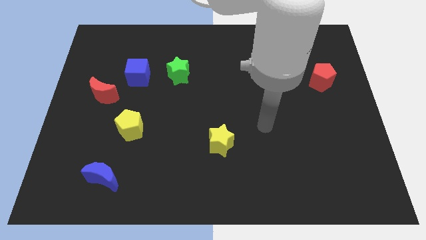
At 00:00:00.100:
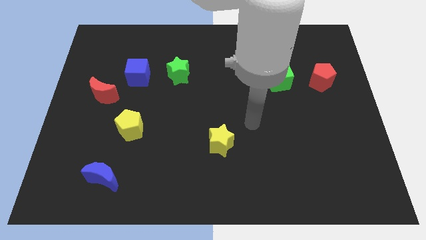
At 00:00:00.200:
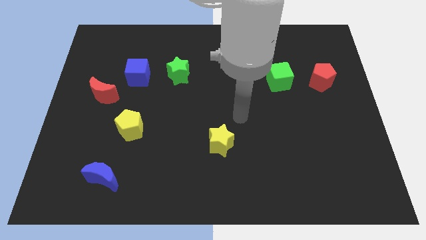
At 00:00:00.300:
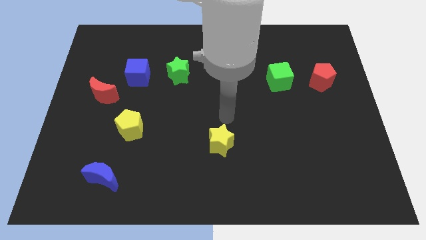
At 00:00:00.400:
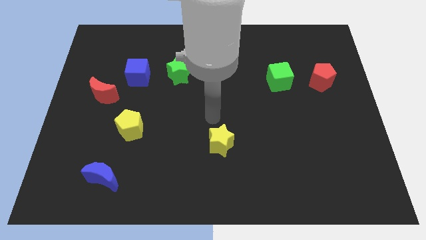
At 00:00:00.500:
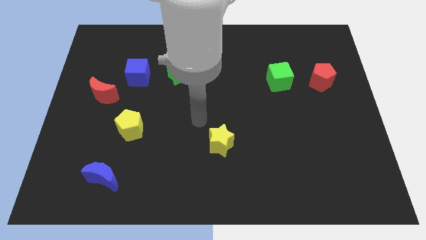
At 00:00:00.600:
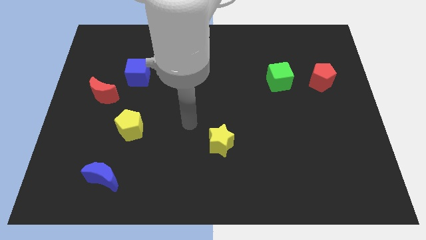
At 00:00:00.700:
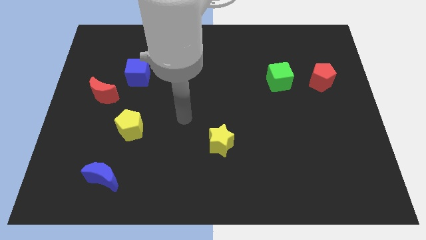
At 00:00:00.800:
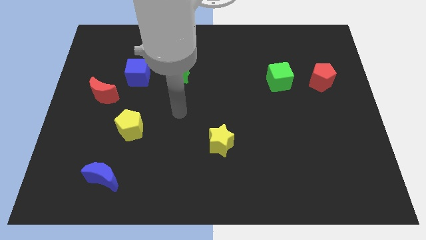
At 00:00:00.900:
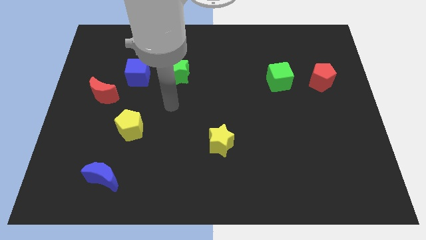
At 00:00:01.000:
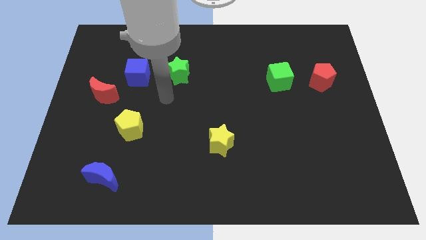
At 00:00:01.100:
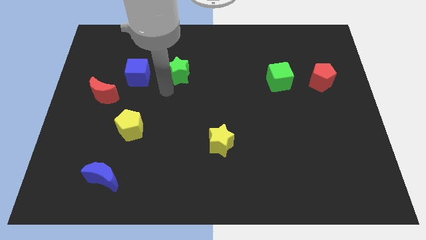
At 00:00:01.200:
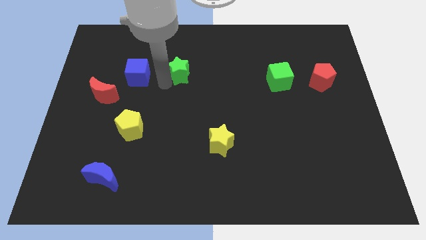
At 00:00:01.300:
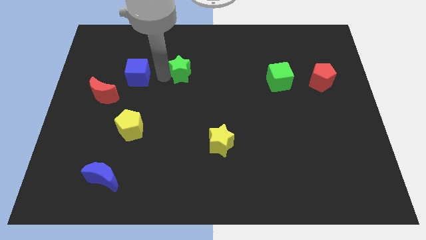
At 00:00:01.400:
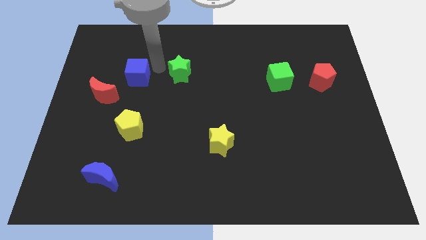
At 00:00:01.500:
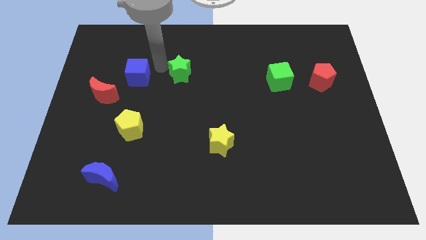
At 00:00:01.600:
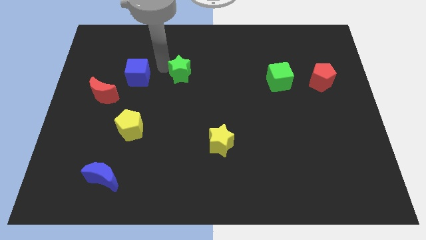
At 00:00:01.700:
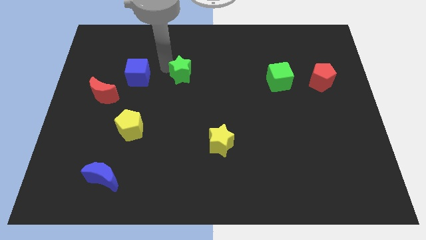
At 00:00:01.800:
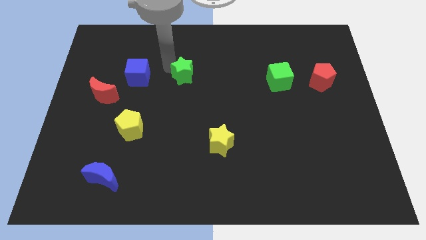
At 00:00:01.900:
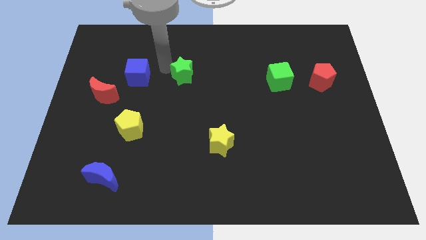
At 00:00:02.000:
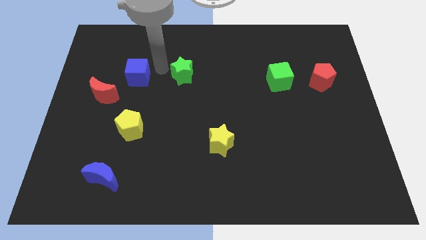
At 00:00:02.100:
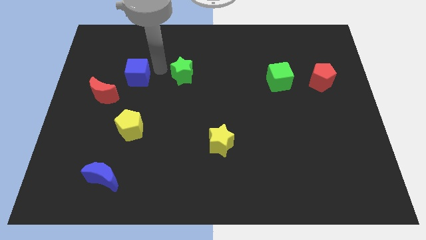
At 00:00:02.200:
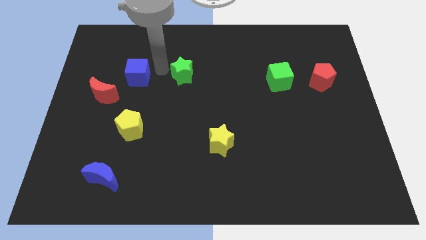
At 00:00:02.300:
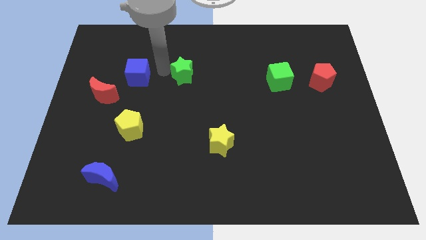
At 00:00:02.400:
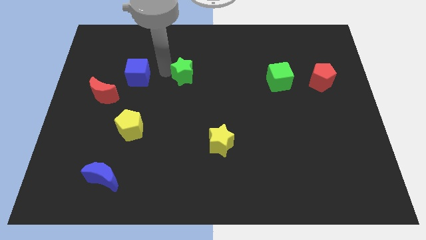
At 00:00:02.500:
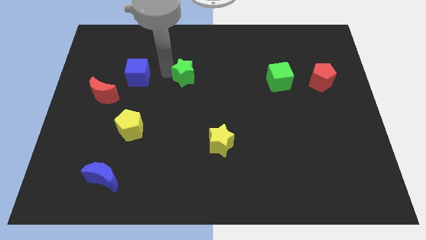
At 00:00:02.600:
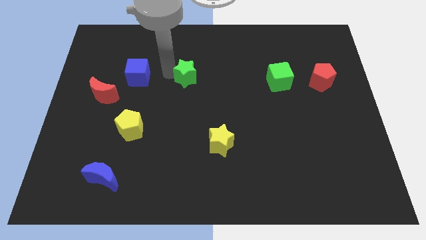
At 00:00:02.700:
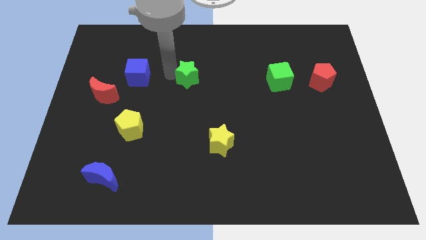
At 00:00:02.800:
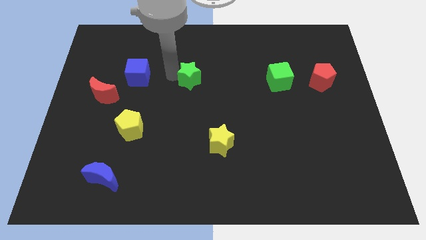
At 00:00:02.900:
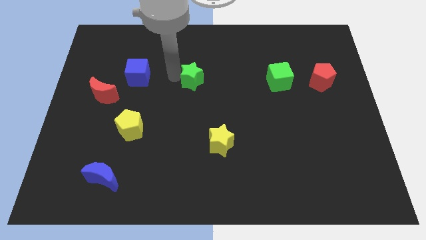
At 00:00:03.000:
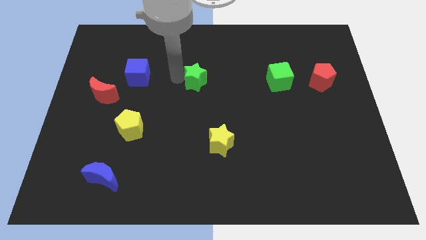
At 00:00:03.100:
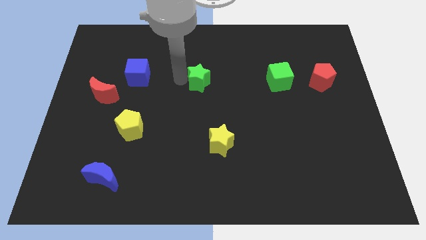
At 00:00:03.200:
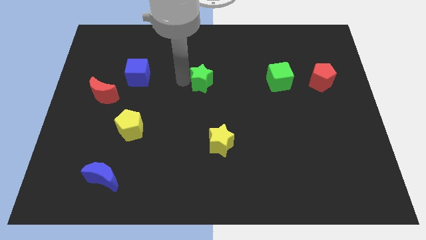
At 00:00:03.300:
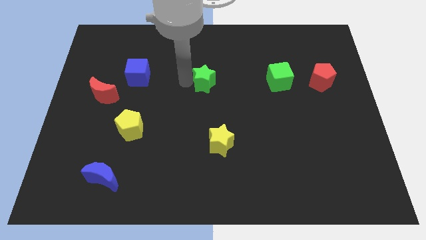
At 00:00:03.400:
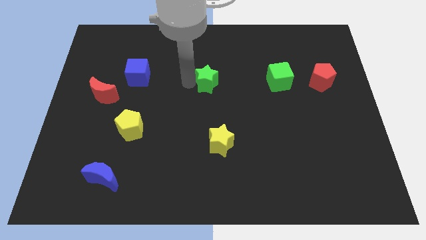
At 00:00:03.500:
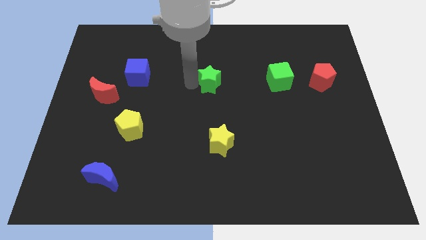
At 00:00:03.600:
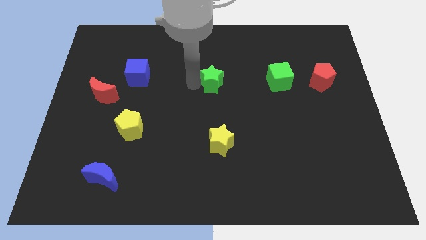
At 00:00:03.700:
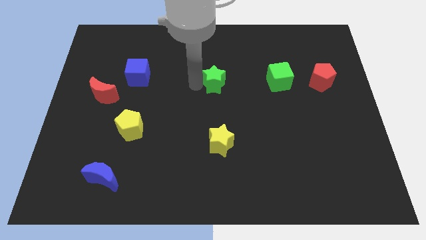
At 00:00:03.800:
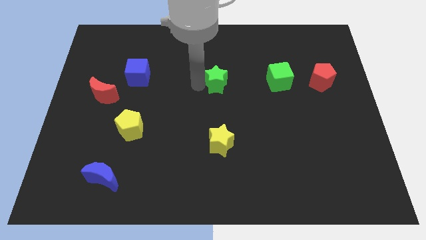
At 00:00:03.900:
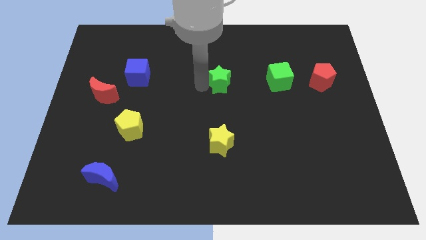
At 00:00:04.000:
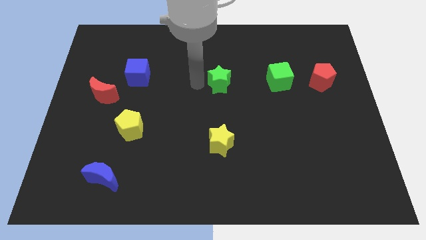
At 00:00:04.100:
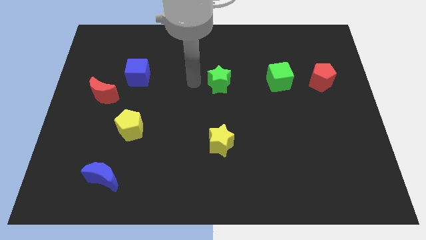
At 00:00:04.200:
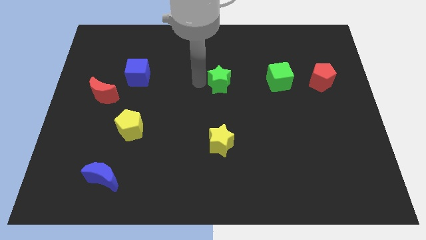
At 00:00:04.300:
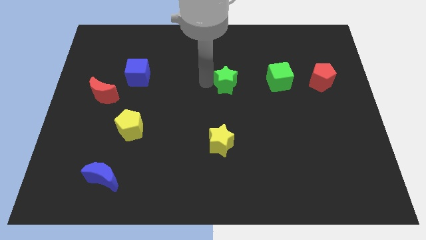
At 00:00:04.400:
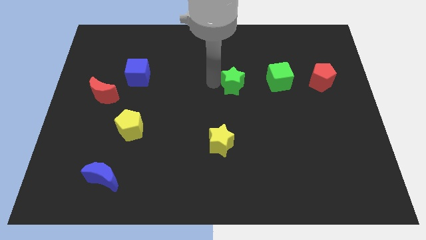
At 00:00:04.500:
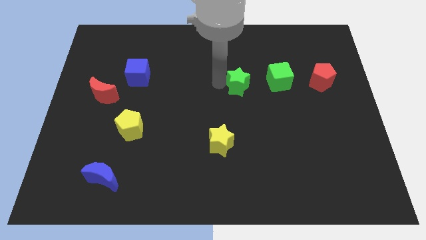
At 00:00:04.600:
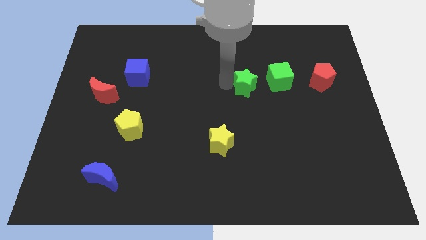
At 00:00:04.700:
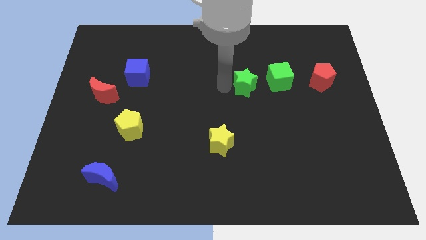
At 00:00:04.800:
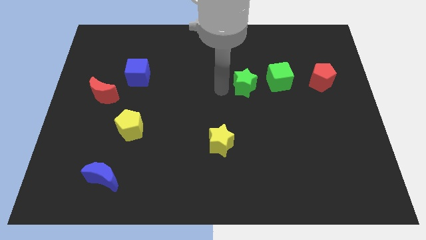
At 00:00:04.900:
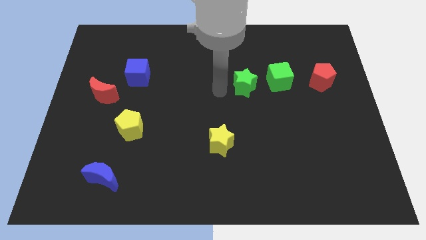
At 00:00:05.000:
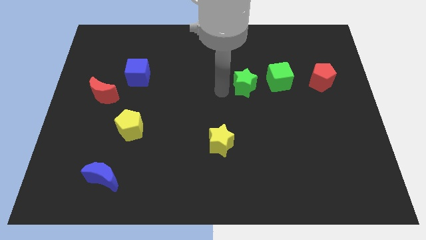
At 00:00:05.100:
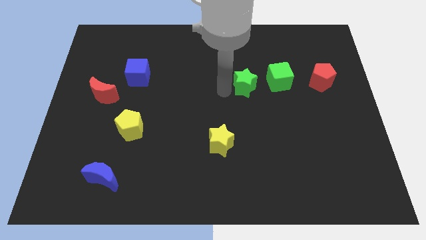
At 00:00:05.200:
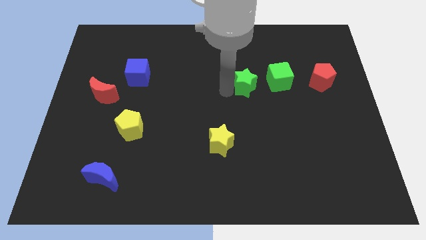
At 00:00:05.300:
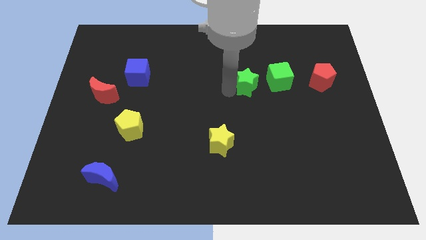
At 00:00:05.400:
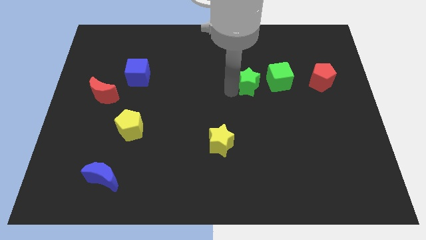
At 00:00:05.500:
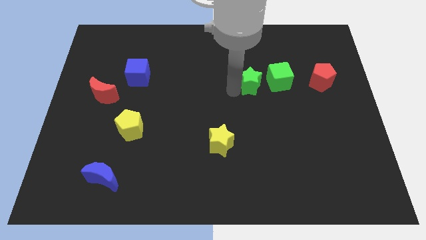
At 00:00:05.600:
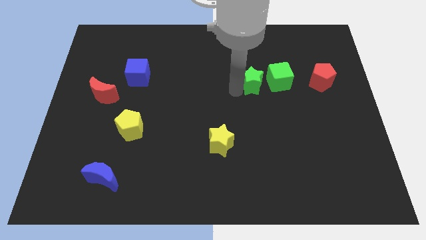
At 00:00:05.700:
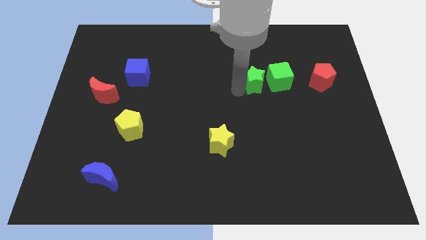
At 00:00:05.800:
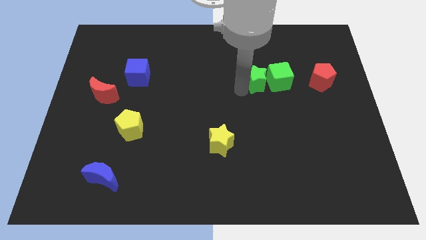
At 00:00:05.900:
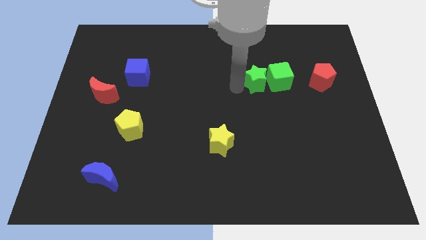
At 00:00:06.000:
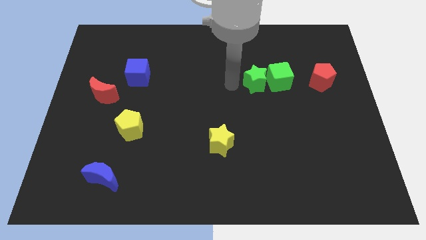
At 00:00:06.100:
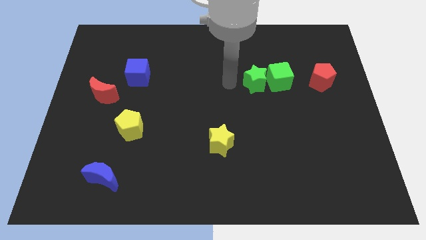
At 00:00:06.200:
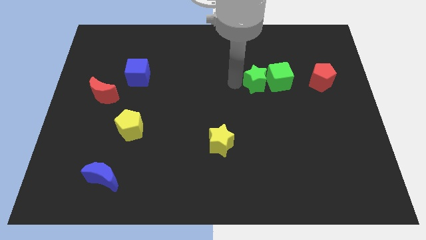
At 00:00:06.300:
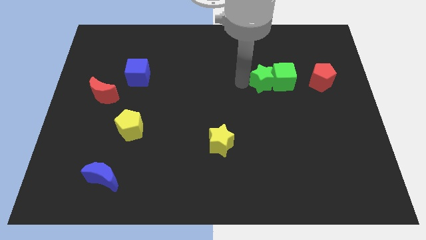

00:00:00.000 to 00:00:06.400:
slide the green star to the left of the red pentagon

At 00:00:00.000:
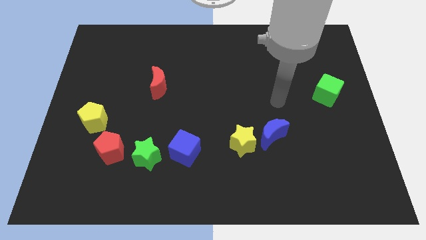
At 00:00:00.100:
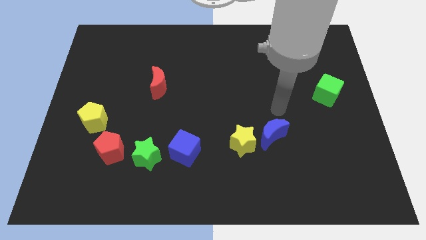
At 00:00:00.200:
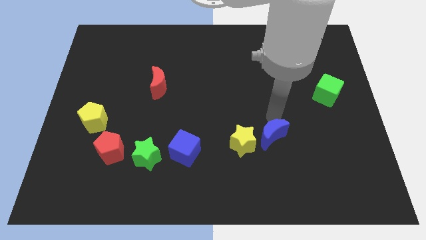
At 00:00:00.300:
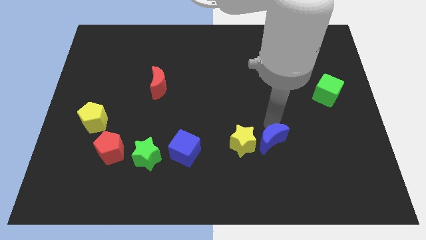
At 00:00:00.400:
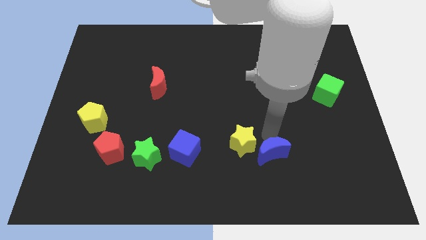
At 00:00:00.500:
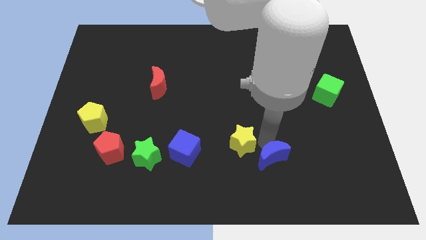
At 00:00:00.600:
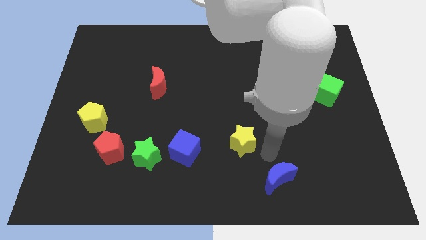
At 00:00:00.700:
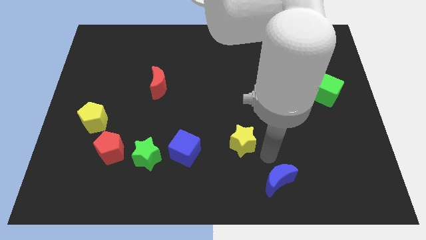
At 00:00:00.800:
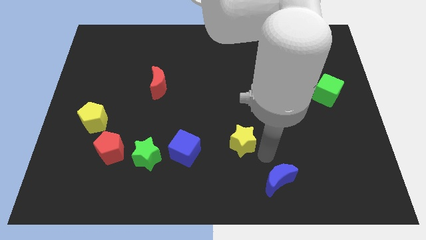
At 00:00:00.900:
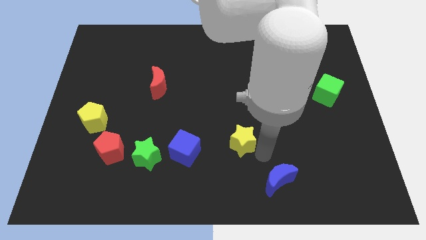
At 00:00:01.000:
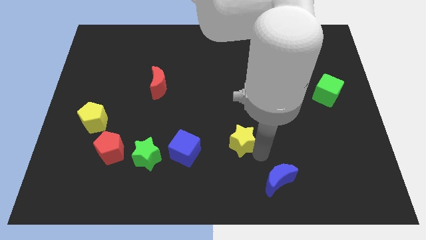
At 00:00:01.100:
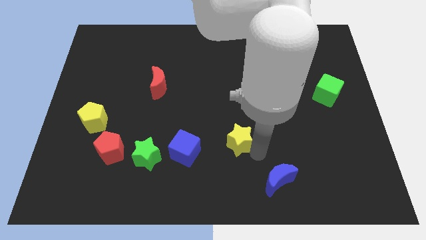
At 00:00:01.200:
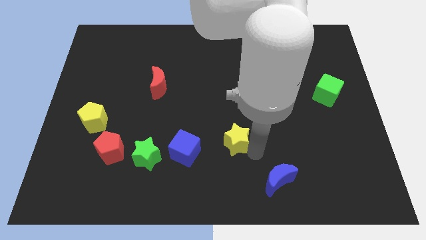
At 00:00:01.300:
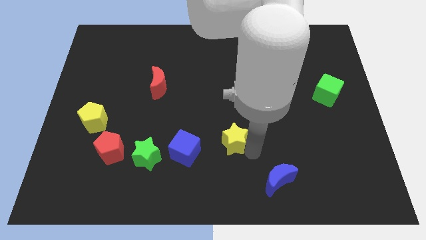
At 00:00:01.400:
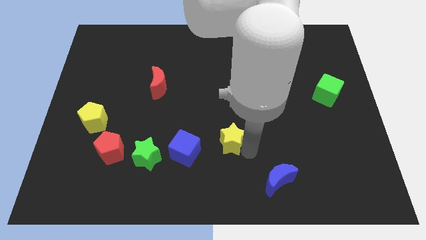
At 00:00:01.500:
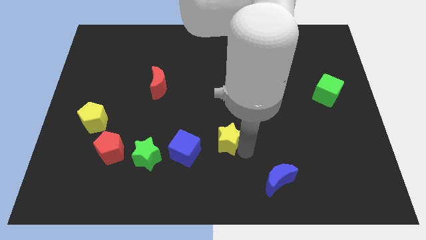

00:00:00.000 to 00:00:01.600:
slide the yellow star to the top right of the blue cube
